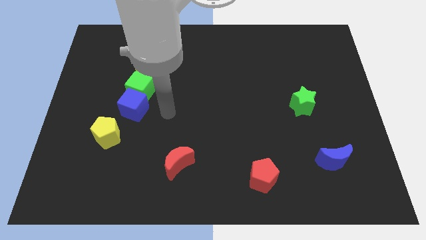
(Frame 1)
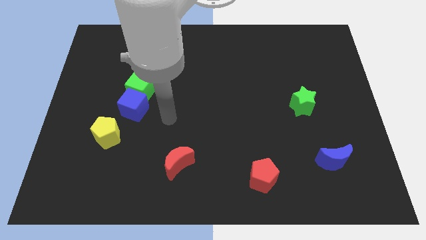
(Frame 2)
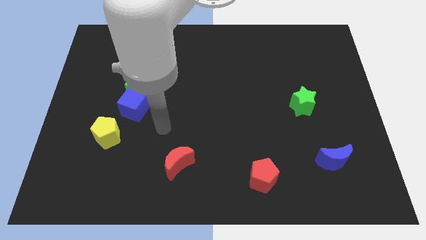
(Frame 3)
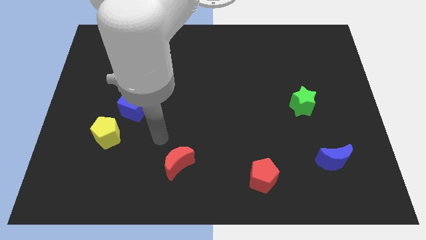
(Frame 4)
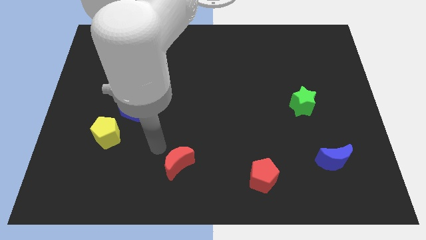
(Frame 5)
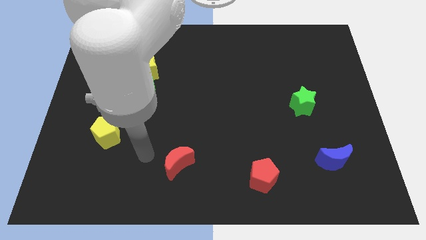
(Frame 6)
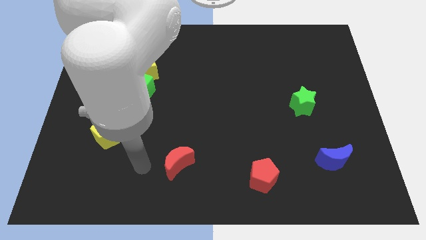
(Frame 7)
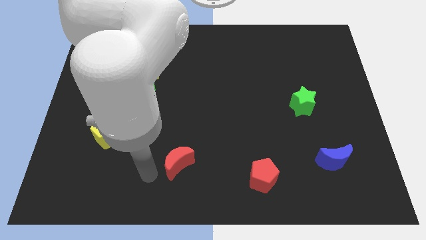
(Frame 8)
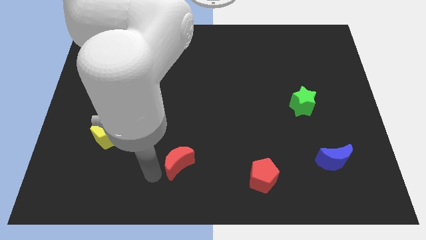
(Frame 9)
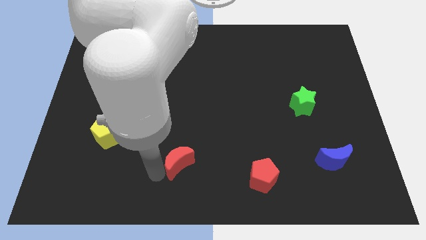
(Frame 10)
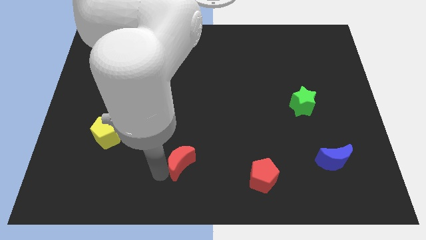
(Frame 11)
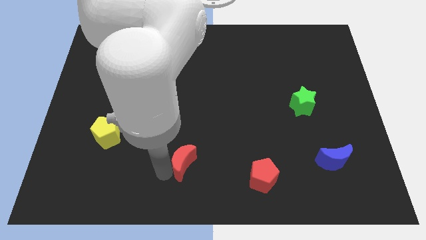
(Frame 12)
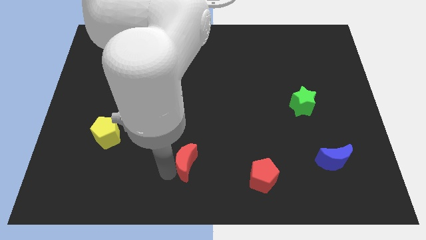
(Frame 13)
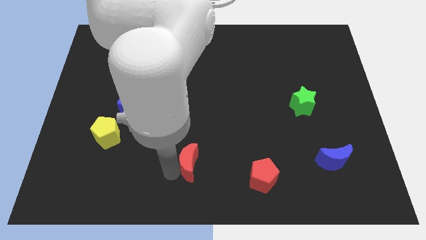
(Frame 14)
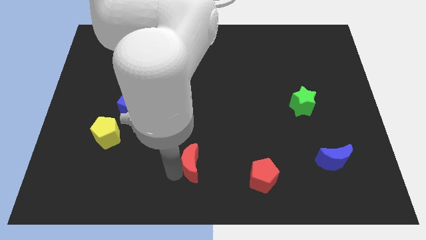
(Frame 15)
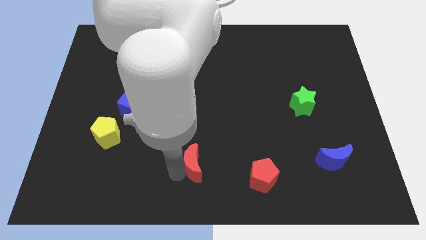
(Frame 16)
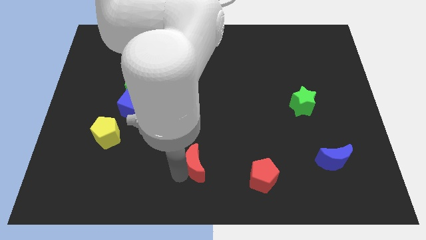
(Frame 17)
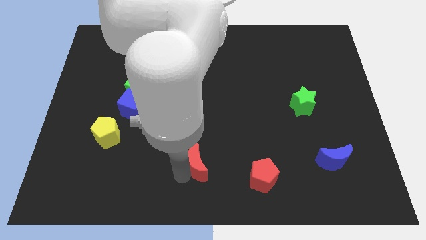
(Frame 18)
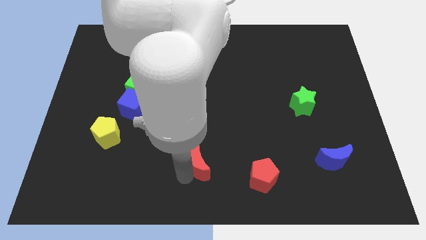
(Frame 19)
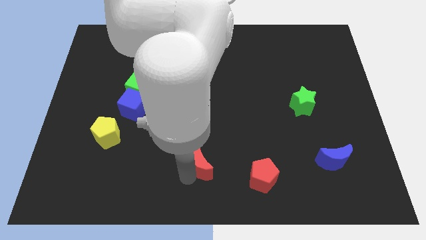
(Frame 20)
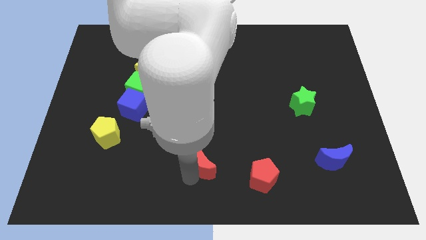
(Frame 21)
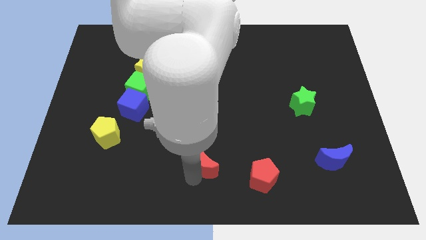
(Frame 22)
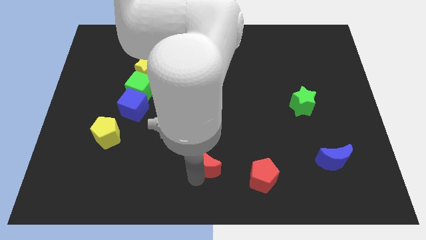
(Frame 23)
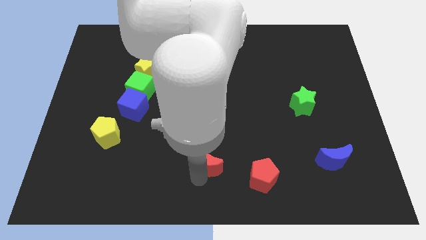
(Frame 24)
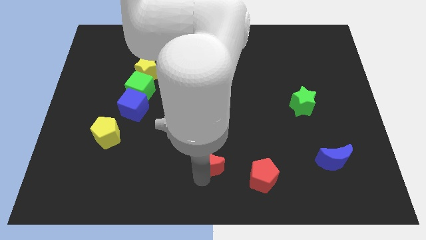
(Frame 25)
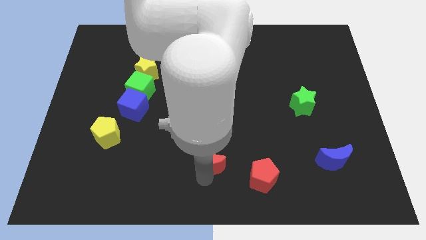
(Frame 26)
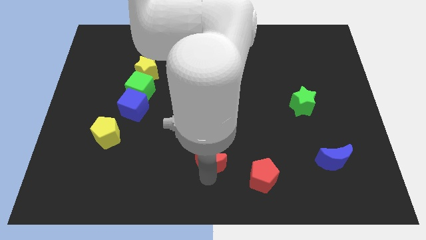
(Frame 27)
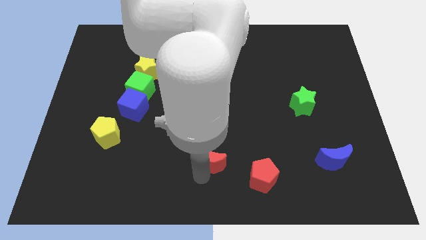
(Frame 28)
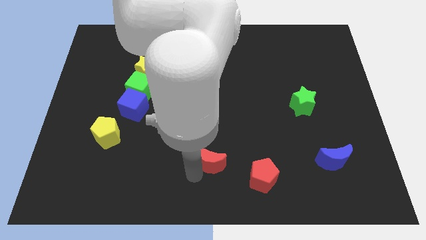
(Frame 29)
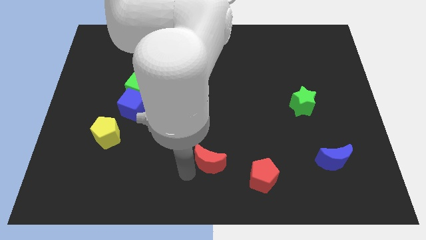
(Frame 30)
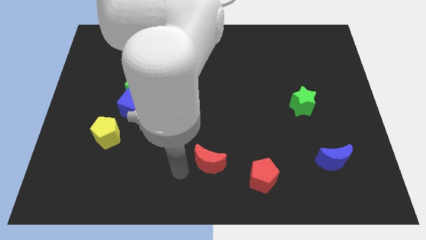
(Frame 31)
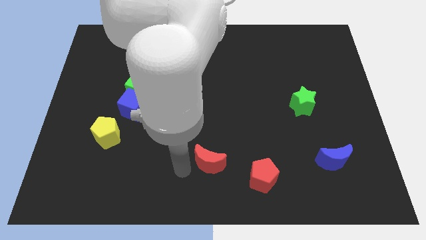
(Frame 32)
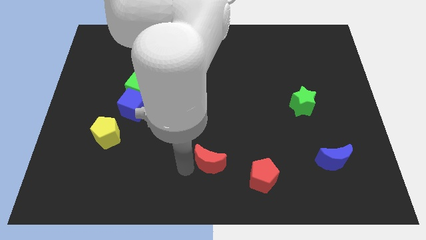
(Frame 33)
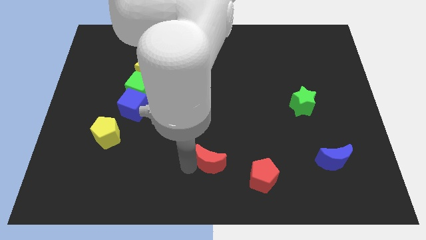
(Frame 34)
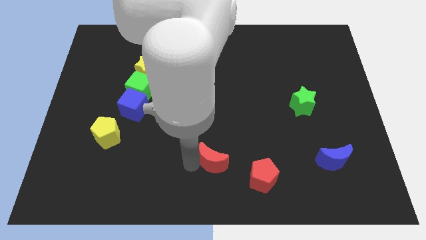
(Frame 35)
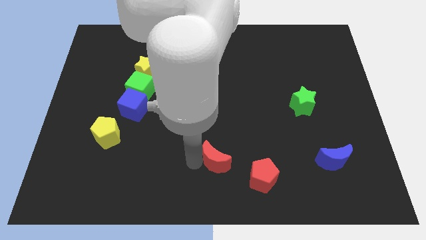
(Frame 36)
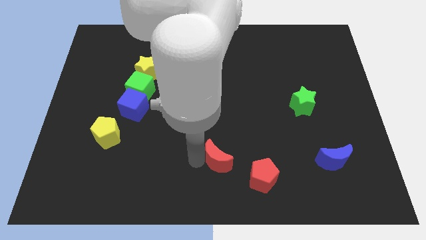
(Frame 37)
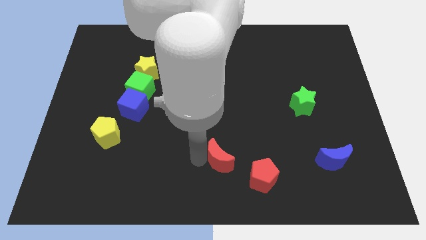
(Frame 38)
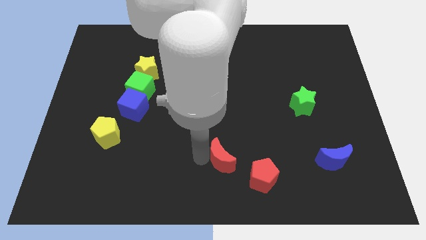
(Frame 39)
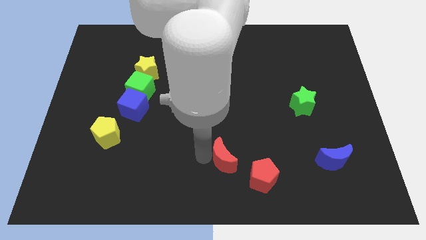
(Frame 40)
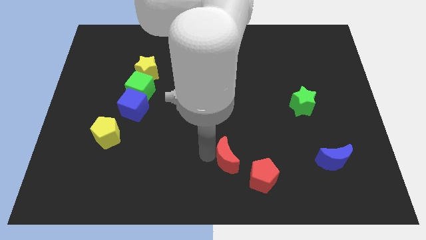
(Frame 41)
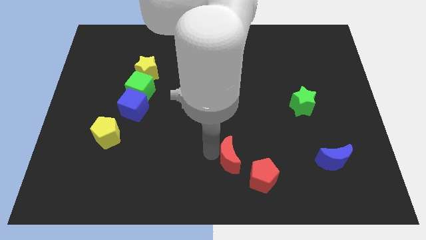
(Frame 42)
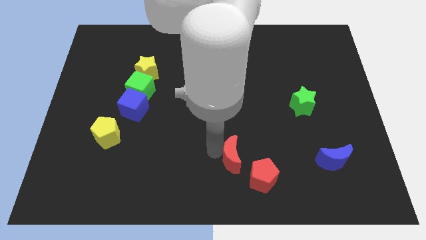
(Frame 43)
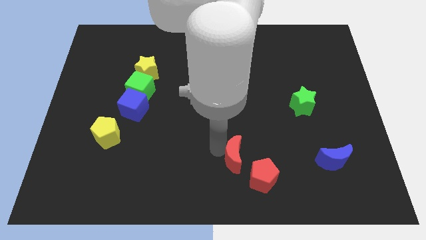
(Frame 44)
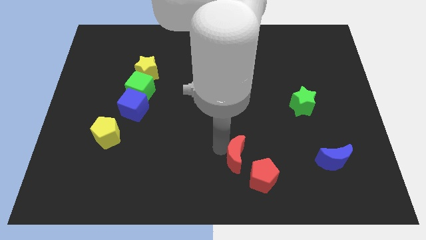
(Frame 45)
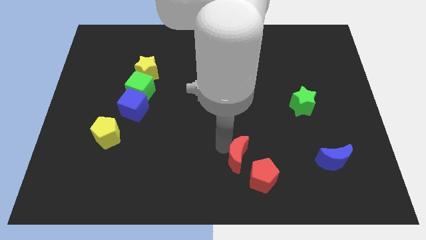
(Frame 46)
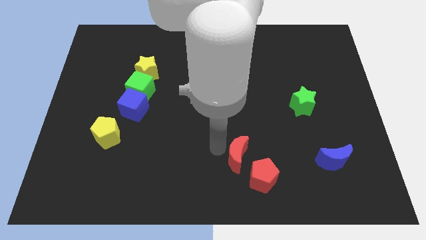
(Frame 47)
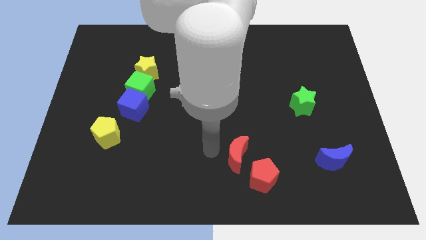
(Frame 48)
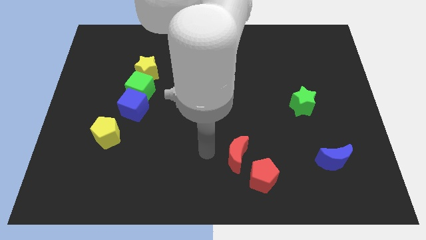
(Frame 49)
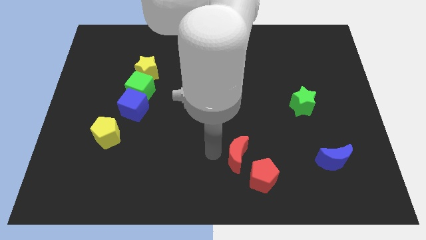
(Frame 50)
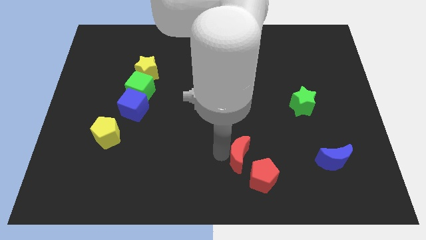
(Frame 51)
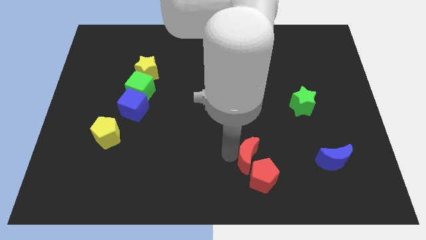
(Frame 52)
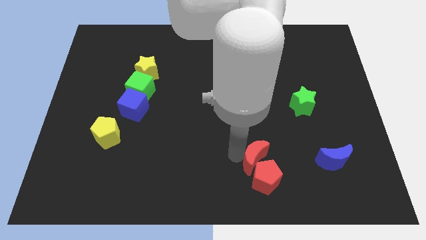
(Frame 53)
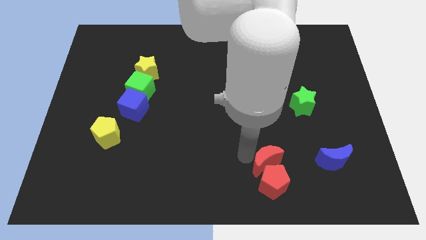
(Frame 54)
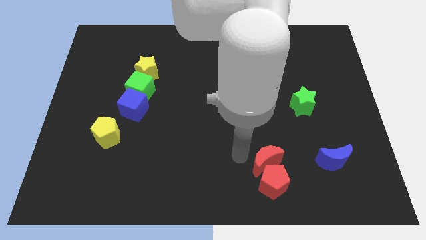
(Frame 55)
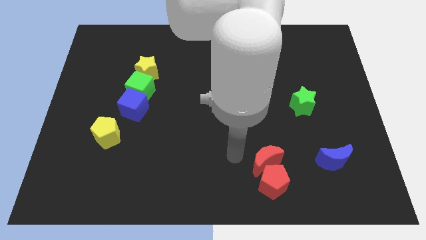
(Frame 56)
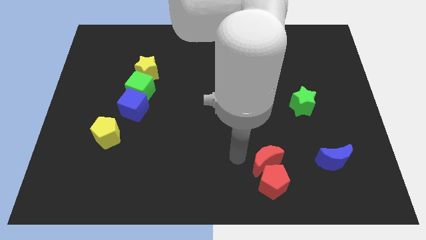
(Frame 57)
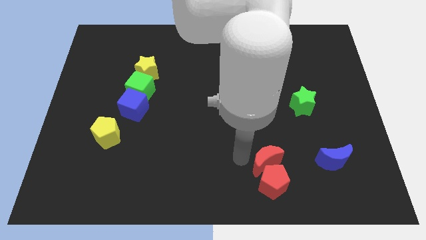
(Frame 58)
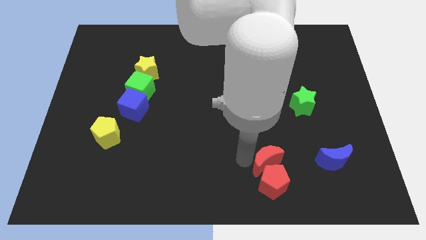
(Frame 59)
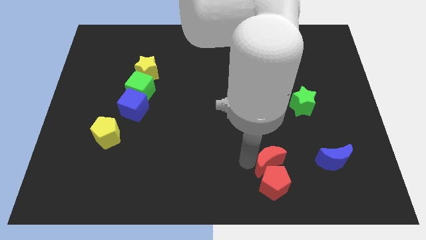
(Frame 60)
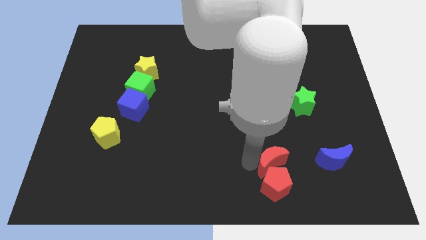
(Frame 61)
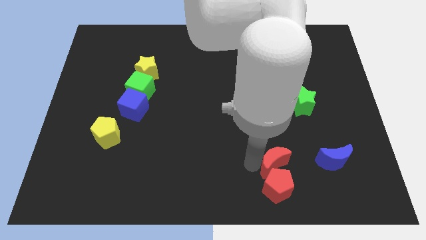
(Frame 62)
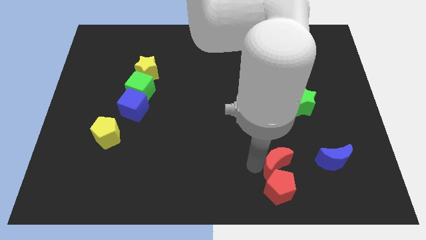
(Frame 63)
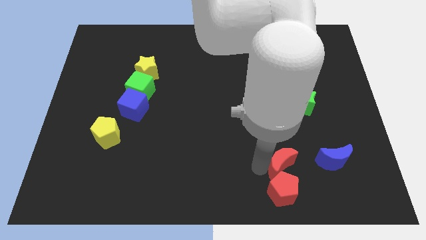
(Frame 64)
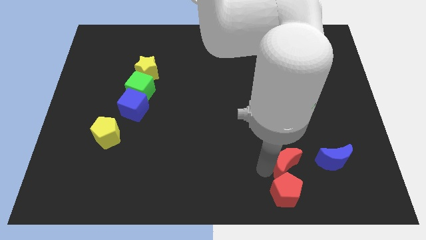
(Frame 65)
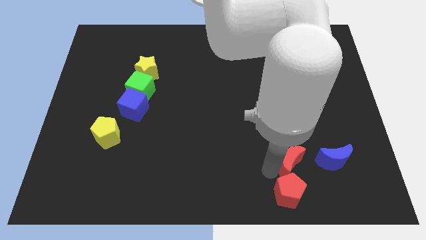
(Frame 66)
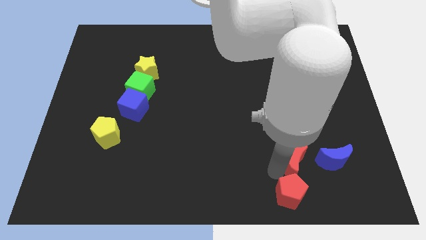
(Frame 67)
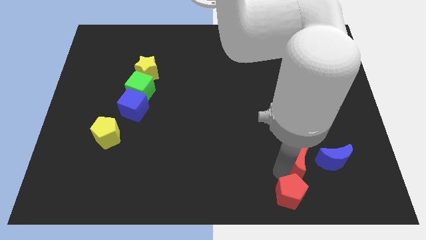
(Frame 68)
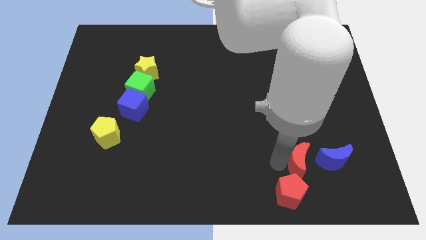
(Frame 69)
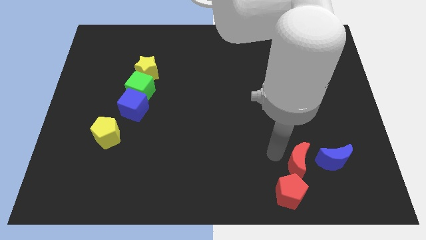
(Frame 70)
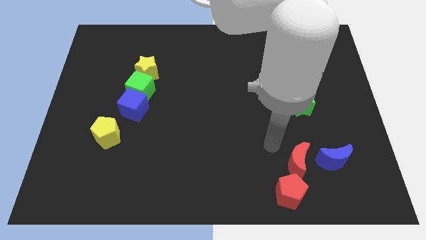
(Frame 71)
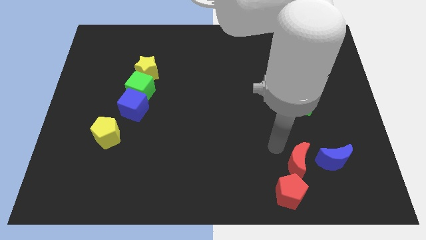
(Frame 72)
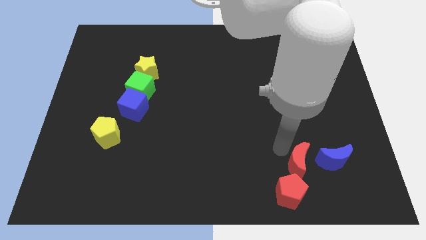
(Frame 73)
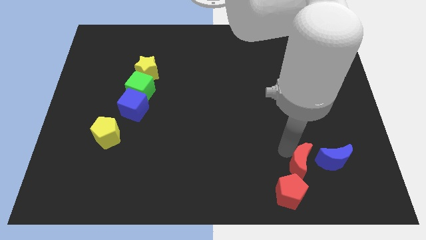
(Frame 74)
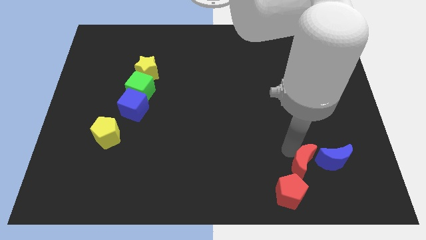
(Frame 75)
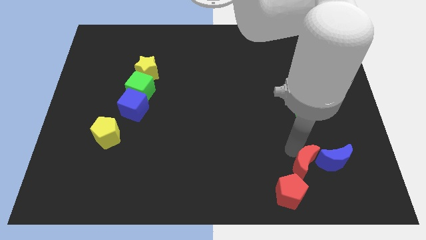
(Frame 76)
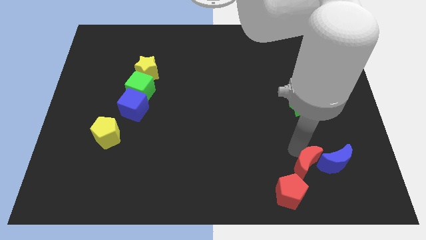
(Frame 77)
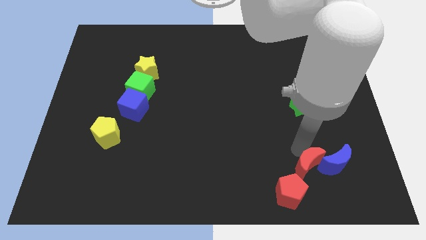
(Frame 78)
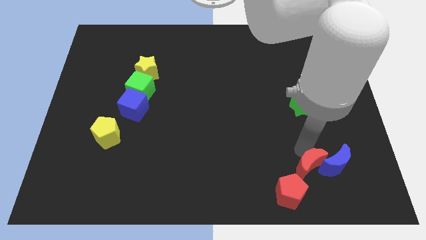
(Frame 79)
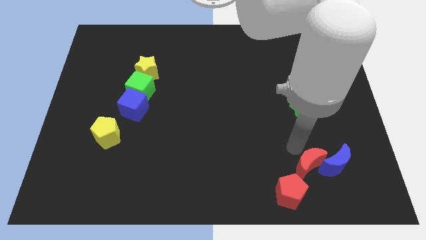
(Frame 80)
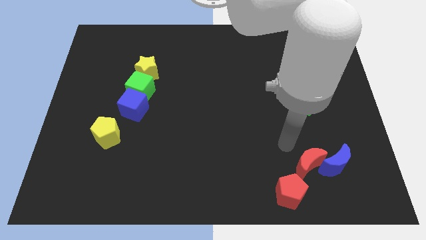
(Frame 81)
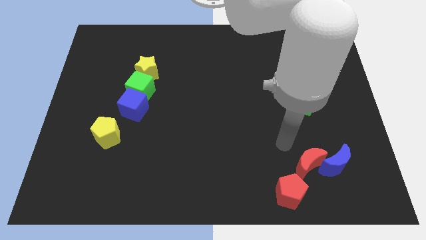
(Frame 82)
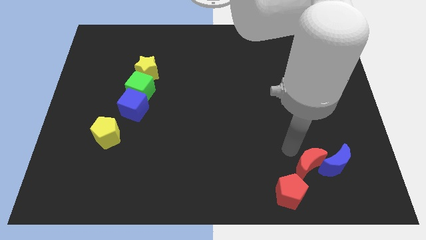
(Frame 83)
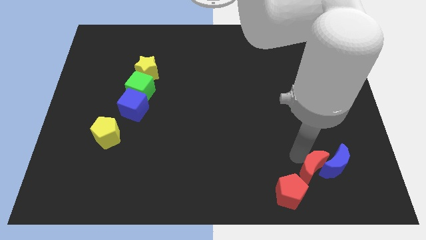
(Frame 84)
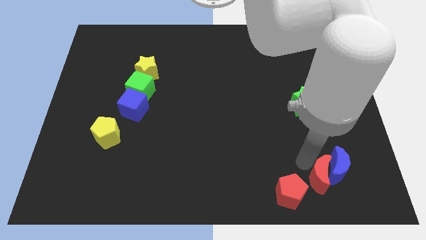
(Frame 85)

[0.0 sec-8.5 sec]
slide the red moon to the right side of the red pentagon
